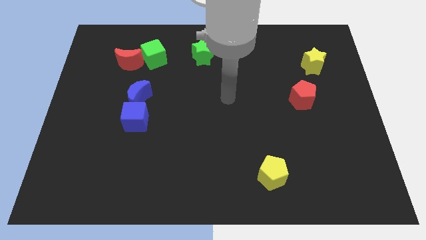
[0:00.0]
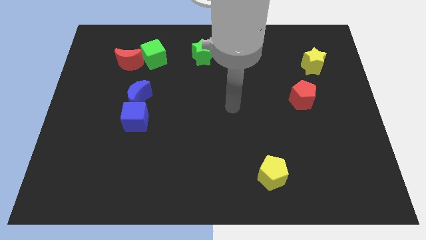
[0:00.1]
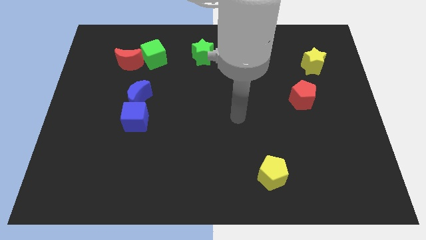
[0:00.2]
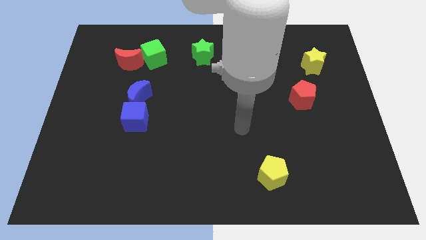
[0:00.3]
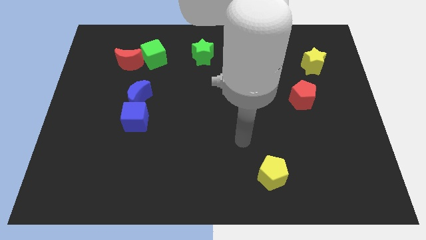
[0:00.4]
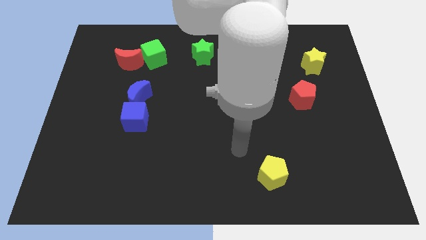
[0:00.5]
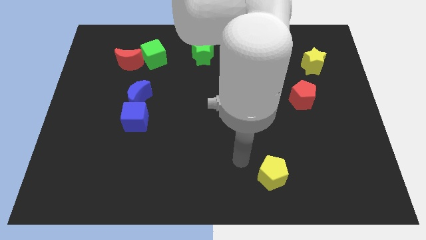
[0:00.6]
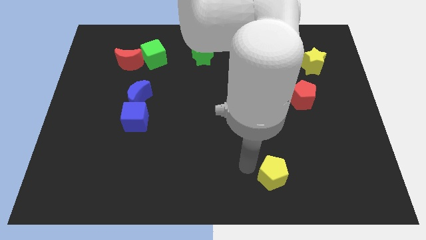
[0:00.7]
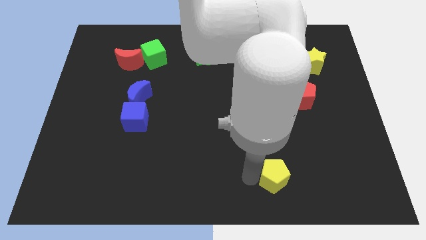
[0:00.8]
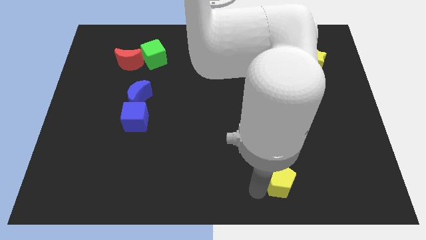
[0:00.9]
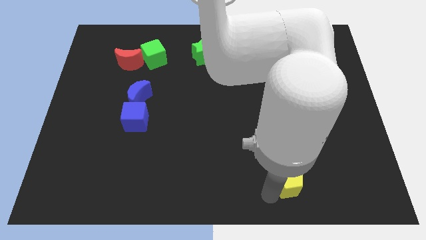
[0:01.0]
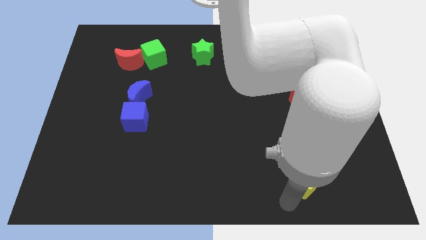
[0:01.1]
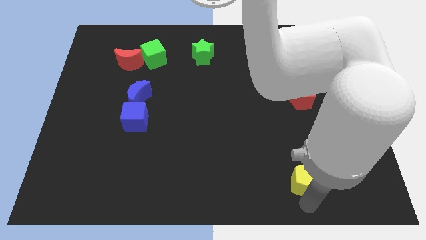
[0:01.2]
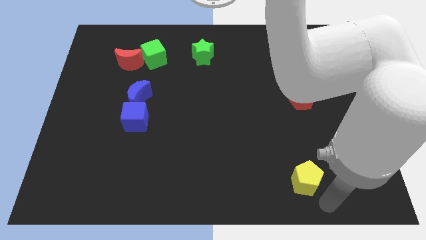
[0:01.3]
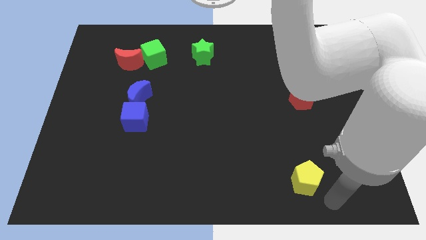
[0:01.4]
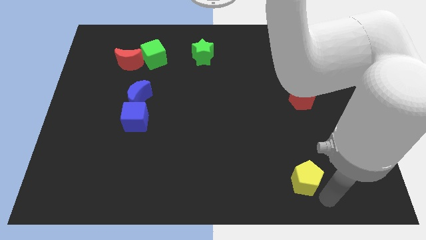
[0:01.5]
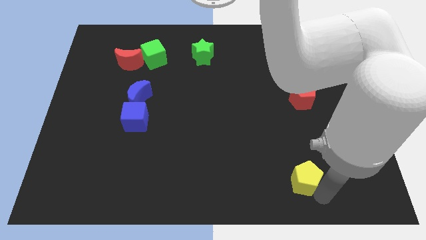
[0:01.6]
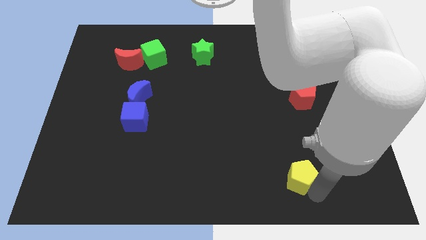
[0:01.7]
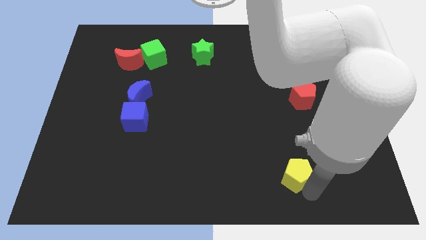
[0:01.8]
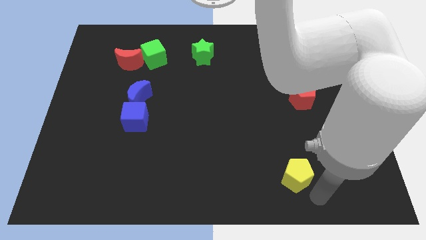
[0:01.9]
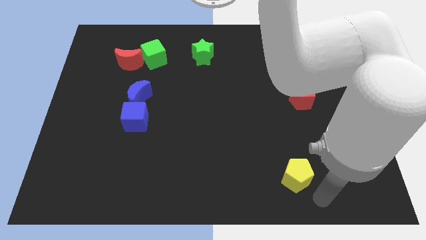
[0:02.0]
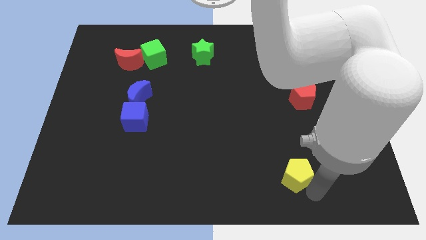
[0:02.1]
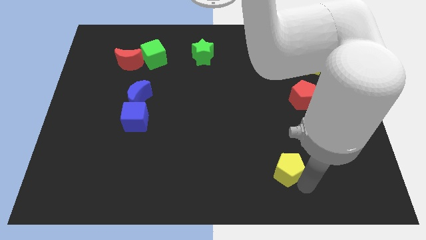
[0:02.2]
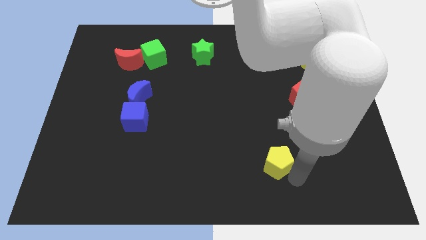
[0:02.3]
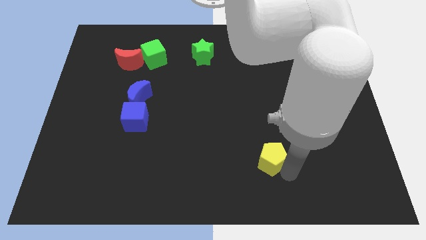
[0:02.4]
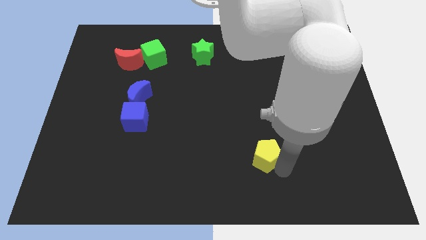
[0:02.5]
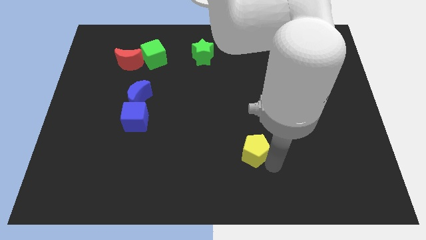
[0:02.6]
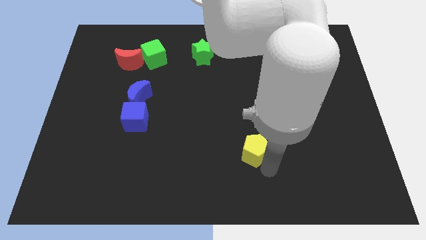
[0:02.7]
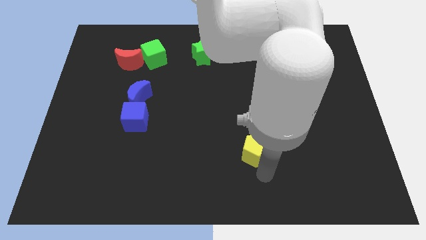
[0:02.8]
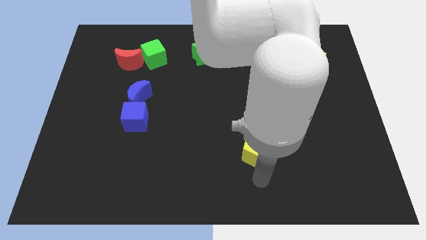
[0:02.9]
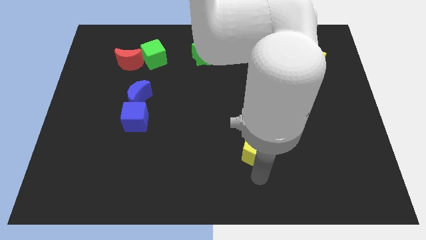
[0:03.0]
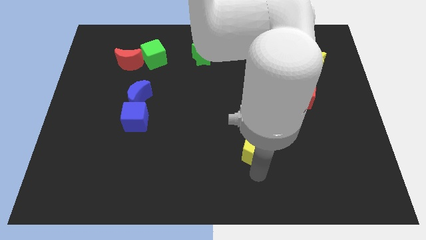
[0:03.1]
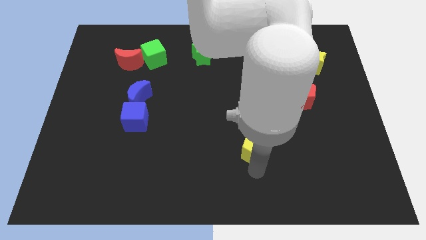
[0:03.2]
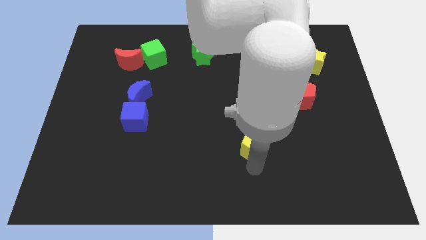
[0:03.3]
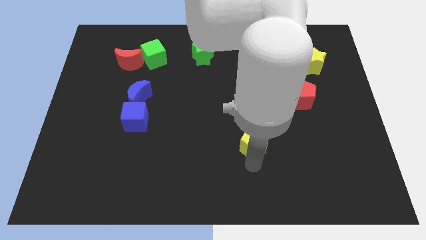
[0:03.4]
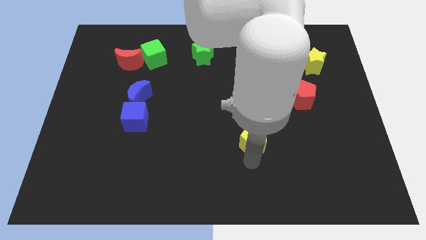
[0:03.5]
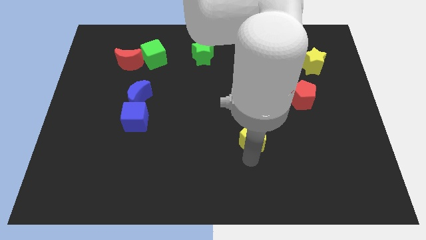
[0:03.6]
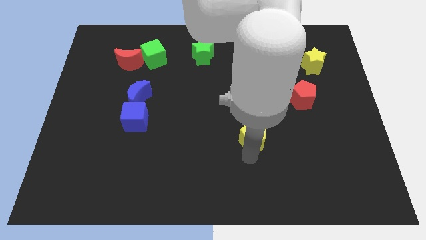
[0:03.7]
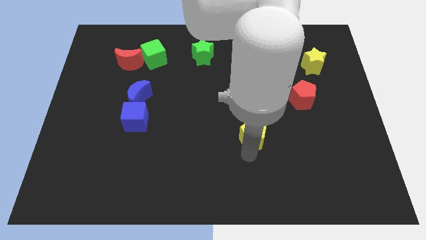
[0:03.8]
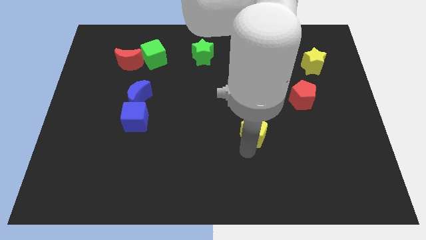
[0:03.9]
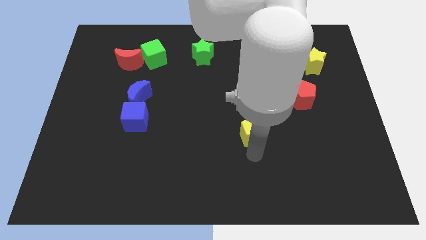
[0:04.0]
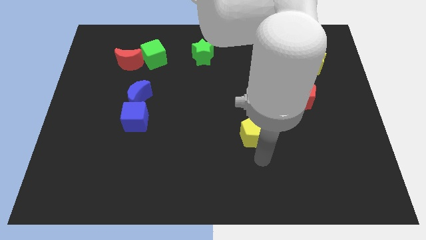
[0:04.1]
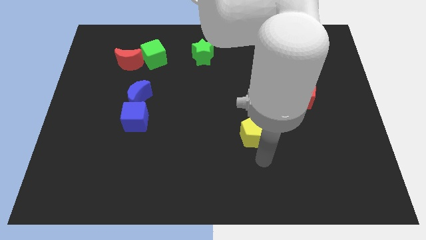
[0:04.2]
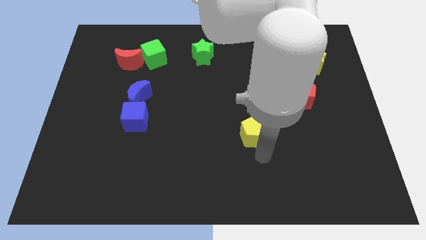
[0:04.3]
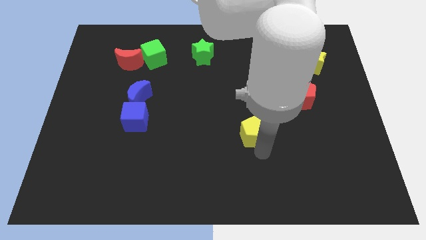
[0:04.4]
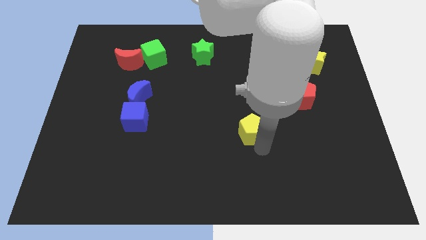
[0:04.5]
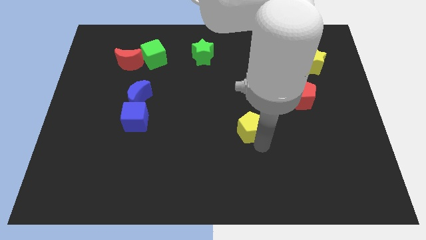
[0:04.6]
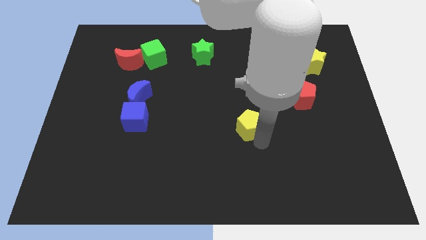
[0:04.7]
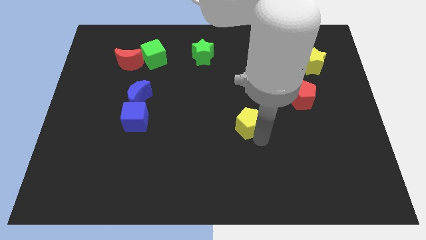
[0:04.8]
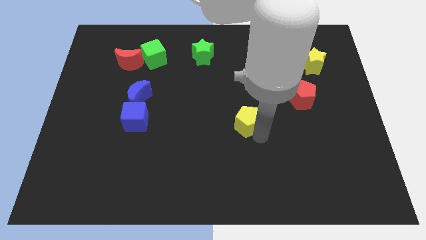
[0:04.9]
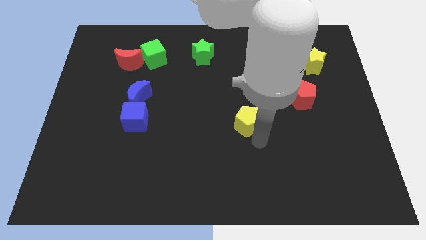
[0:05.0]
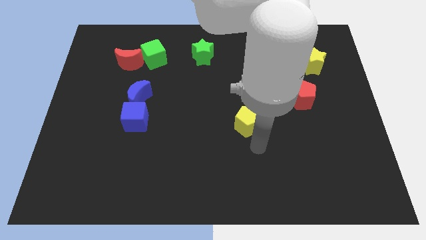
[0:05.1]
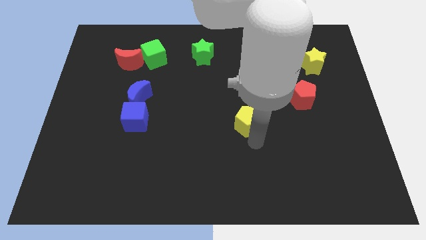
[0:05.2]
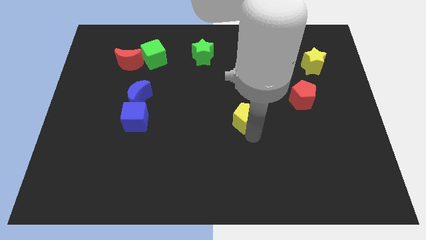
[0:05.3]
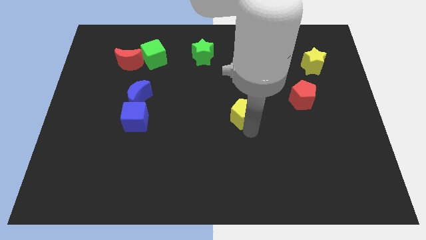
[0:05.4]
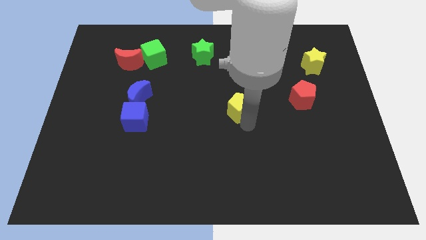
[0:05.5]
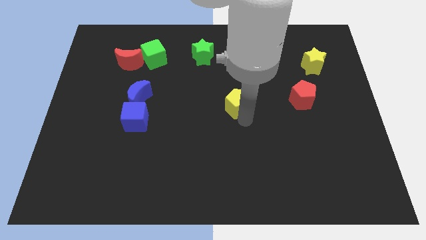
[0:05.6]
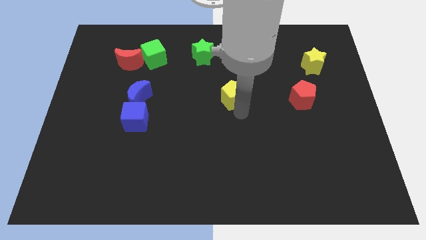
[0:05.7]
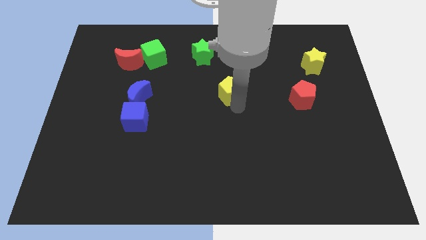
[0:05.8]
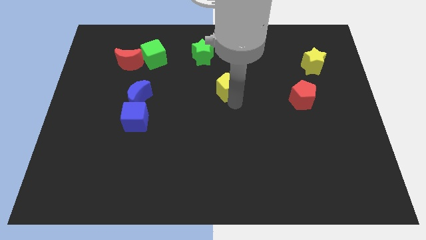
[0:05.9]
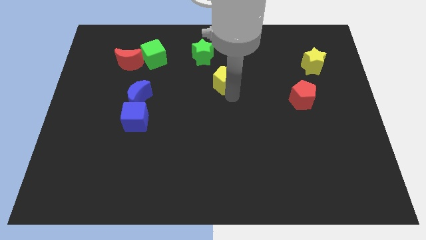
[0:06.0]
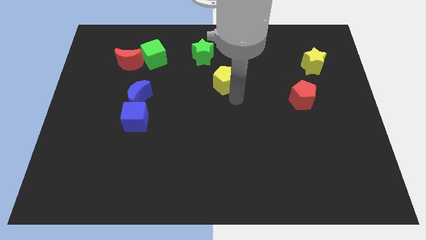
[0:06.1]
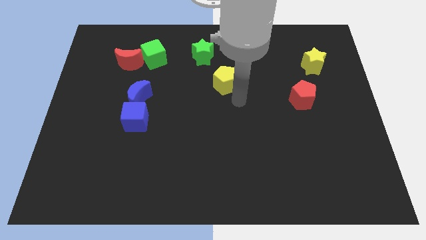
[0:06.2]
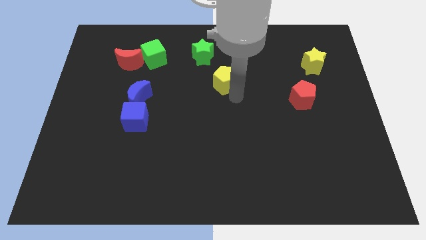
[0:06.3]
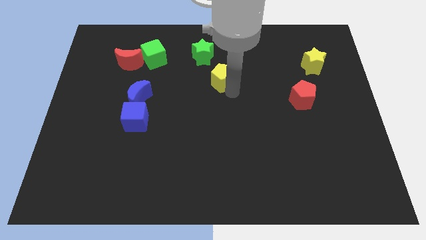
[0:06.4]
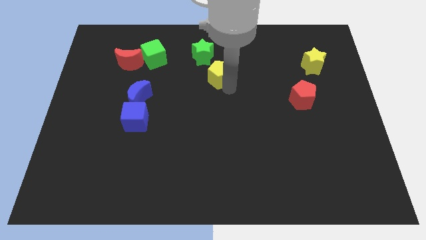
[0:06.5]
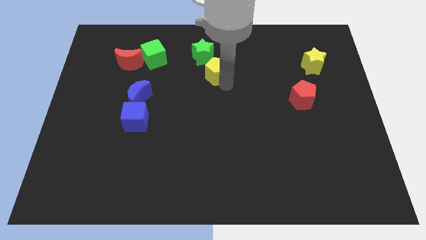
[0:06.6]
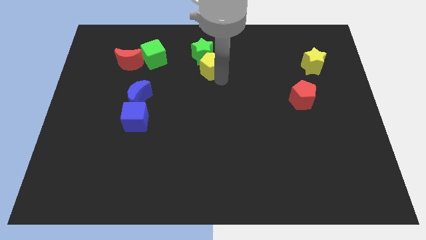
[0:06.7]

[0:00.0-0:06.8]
put the yellow pentagon towards the green star

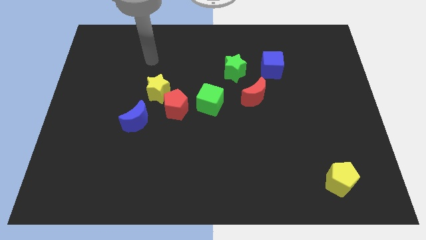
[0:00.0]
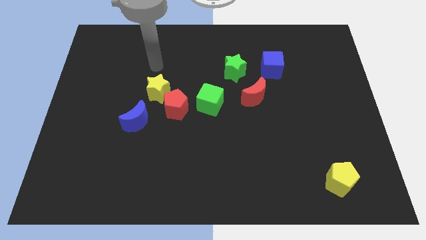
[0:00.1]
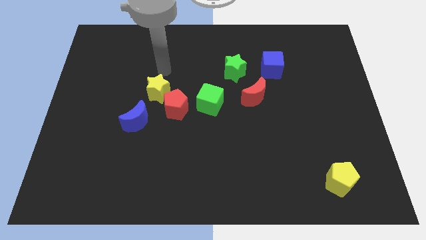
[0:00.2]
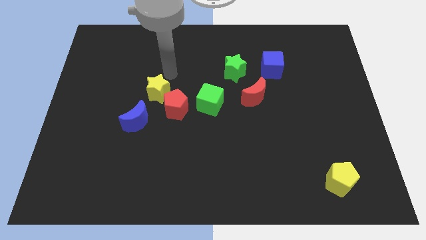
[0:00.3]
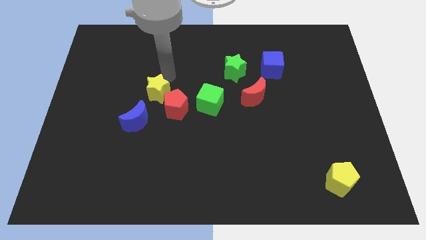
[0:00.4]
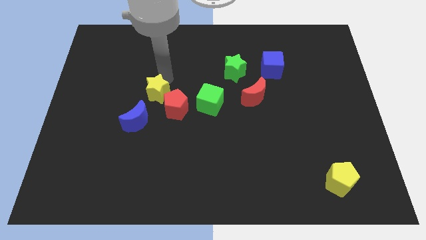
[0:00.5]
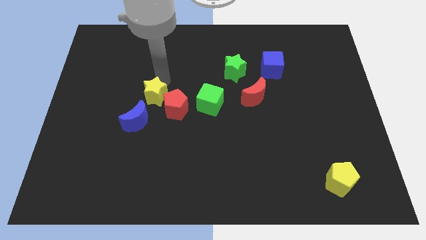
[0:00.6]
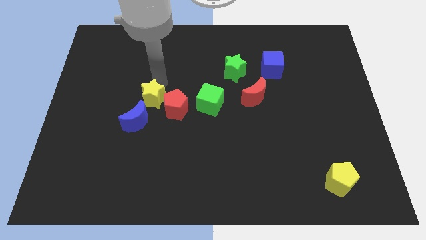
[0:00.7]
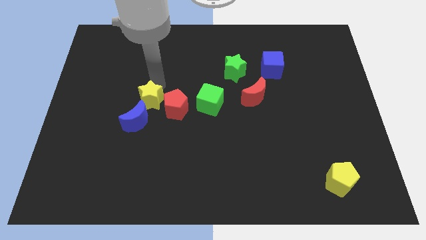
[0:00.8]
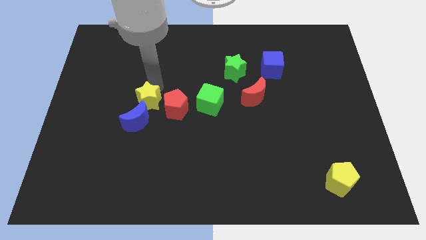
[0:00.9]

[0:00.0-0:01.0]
push the yellow star close to the blue moon
